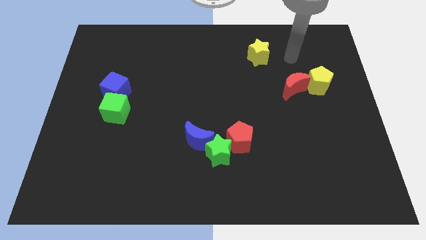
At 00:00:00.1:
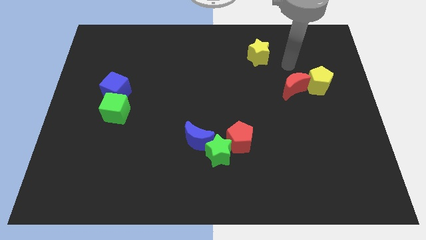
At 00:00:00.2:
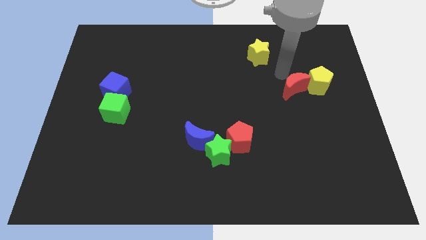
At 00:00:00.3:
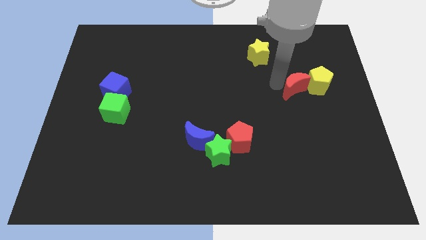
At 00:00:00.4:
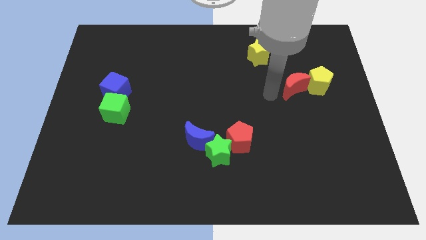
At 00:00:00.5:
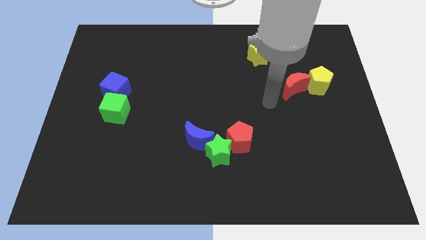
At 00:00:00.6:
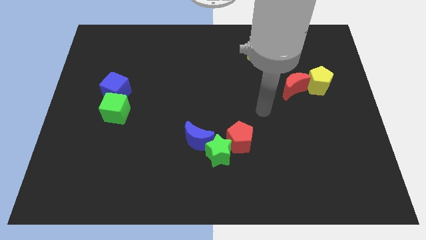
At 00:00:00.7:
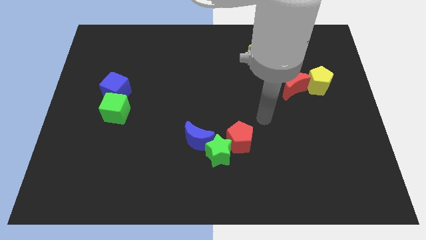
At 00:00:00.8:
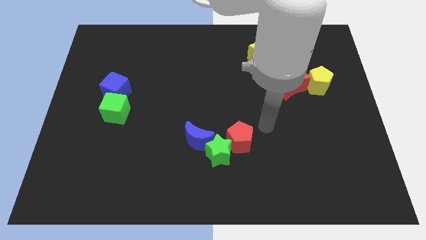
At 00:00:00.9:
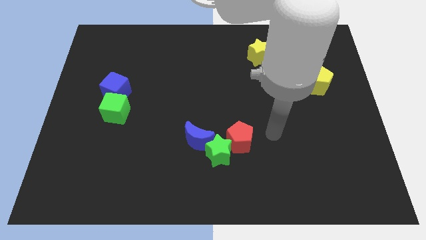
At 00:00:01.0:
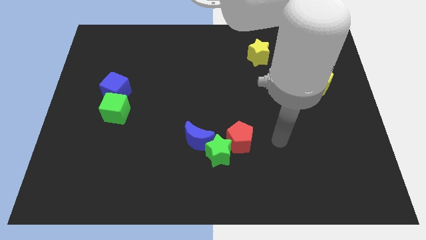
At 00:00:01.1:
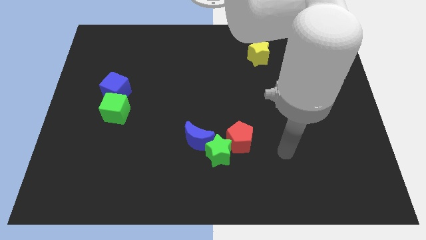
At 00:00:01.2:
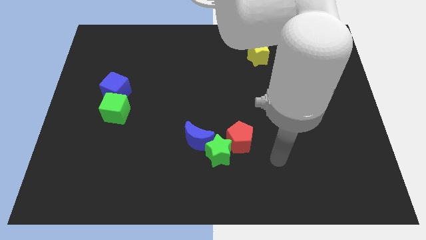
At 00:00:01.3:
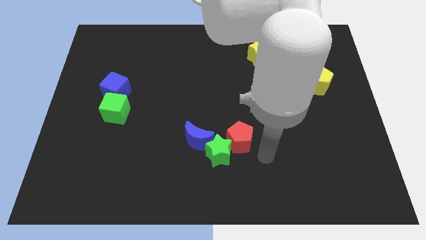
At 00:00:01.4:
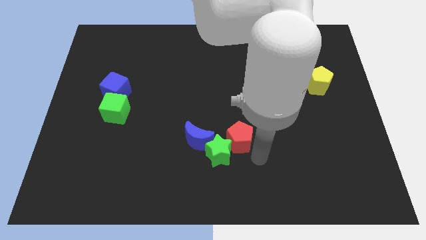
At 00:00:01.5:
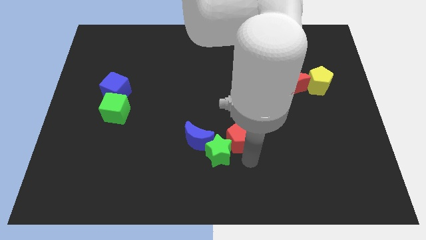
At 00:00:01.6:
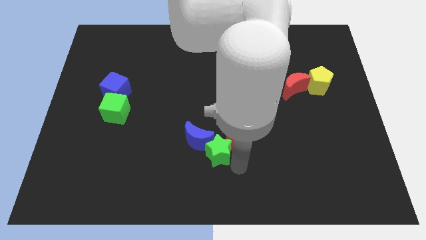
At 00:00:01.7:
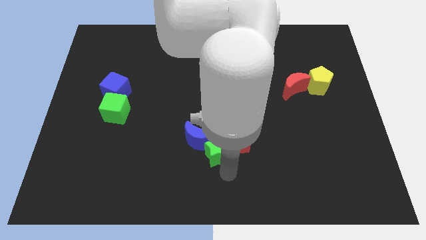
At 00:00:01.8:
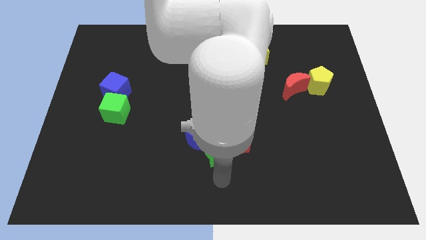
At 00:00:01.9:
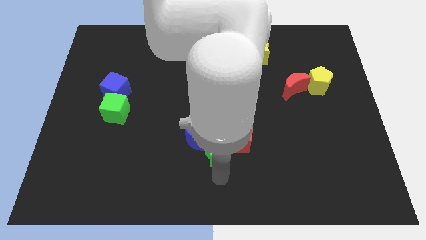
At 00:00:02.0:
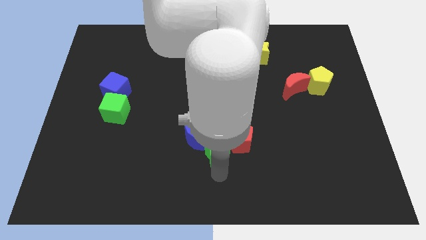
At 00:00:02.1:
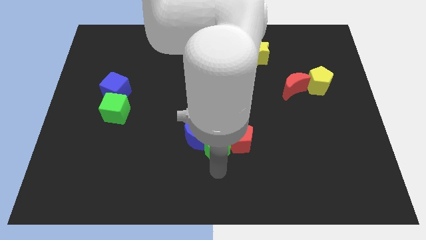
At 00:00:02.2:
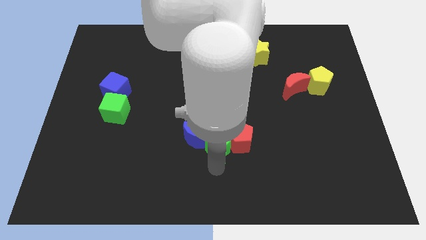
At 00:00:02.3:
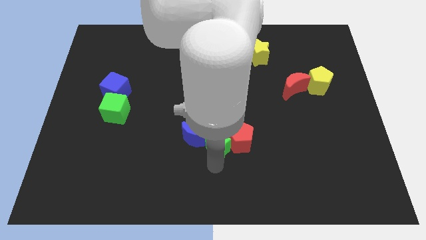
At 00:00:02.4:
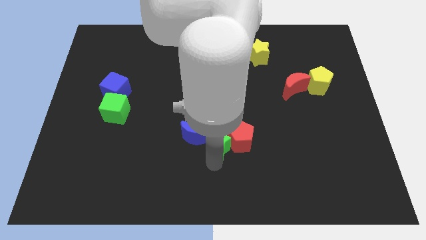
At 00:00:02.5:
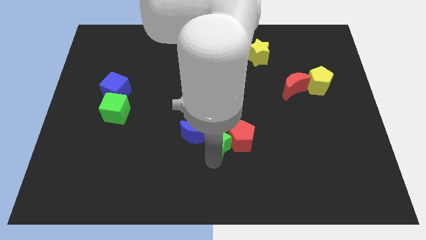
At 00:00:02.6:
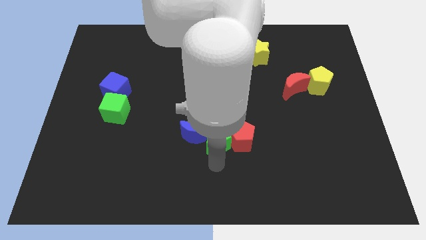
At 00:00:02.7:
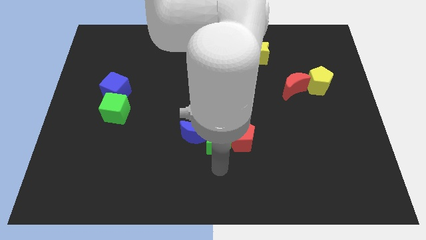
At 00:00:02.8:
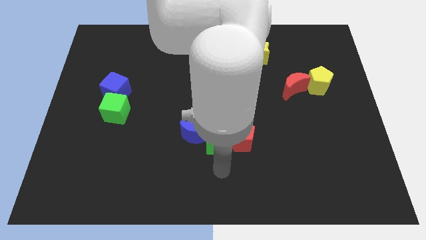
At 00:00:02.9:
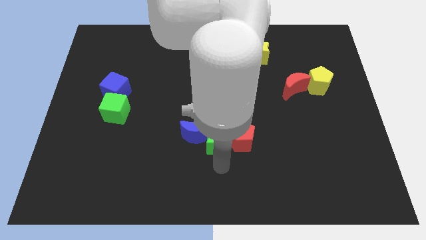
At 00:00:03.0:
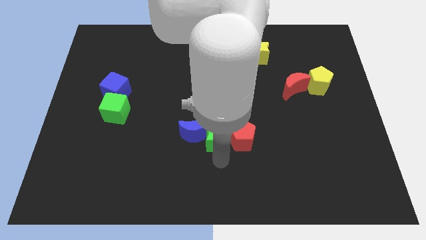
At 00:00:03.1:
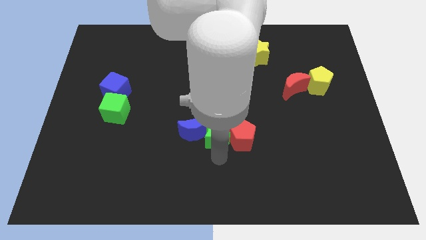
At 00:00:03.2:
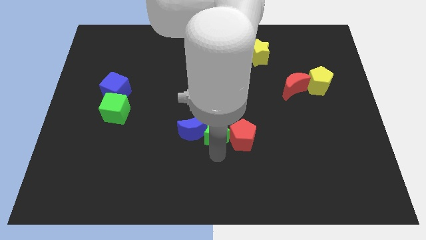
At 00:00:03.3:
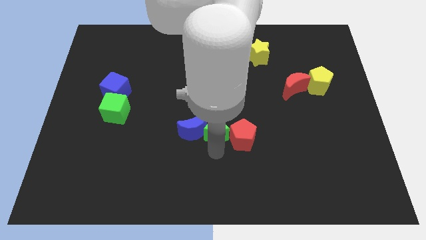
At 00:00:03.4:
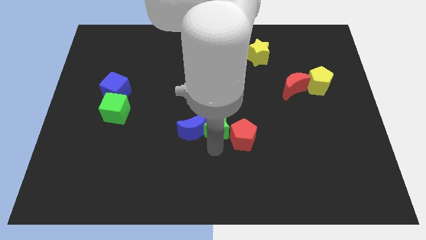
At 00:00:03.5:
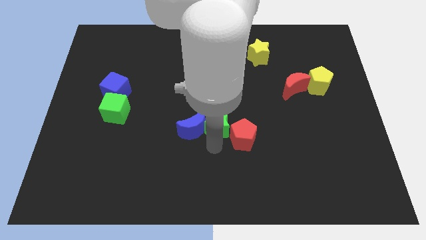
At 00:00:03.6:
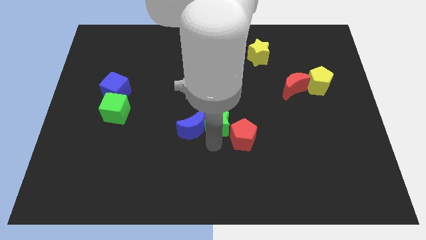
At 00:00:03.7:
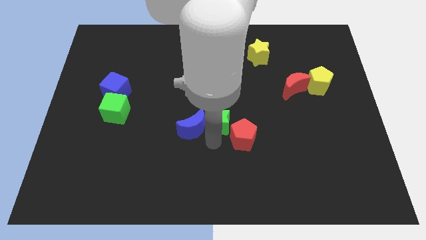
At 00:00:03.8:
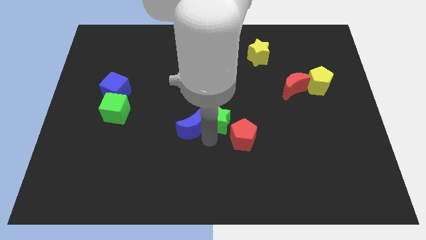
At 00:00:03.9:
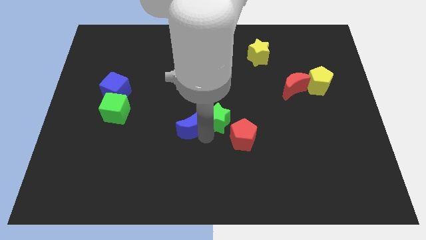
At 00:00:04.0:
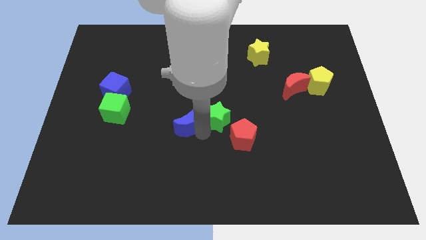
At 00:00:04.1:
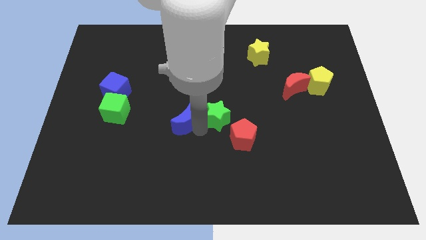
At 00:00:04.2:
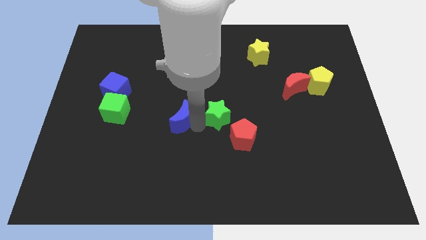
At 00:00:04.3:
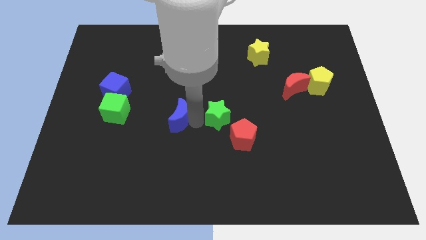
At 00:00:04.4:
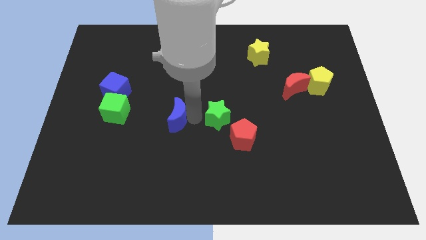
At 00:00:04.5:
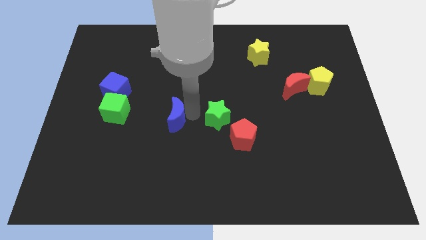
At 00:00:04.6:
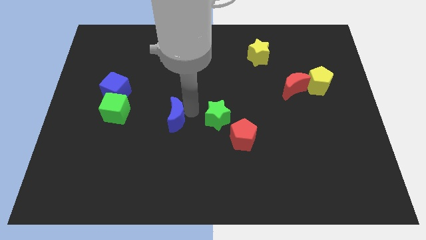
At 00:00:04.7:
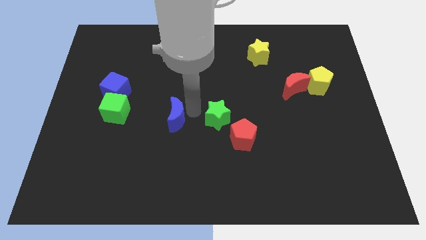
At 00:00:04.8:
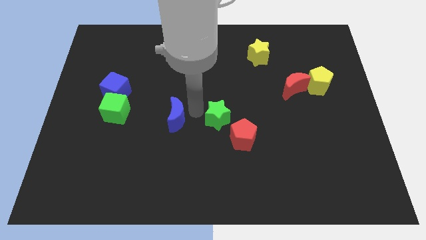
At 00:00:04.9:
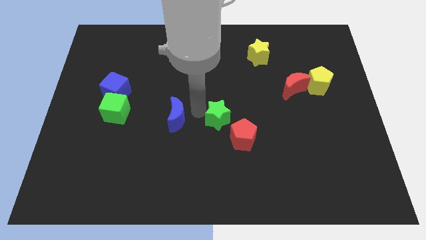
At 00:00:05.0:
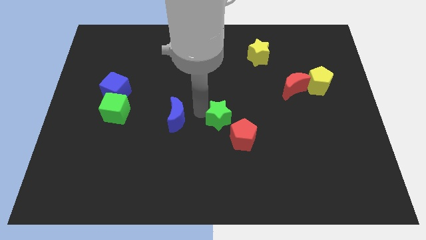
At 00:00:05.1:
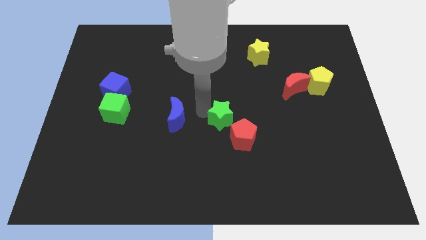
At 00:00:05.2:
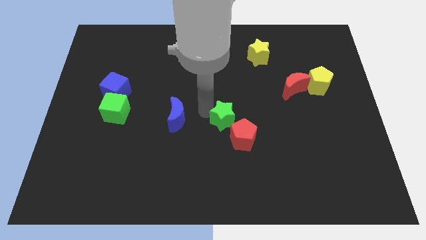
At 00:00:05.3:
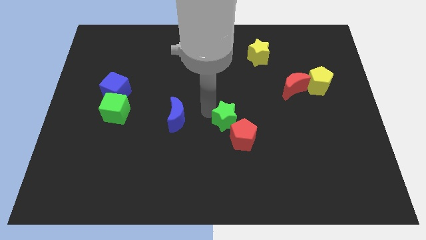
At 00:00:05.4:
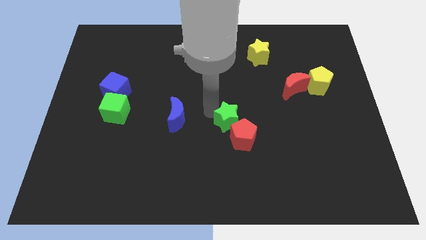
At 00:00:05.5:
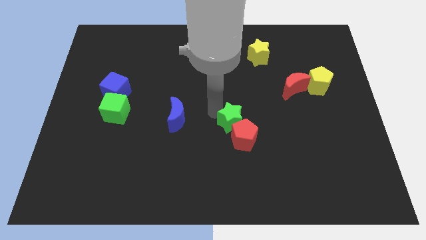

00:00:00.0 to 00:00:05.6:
push the green star up and right slightly

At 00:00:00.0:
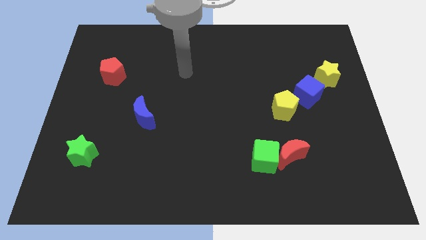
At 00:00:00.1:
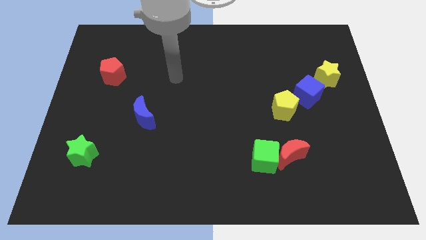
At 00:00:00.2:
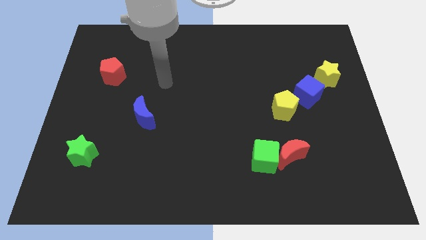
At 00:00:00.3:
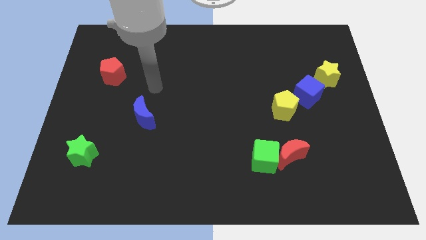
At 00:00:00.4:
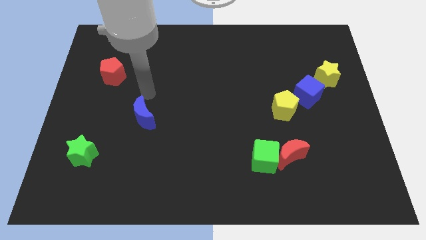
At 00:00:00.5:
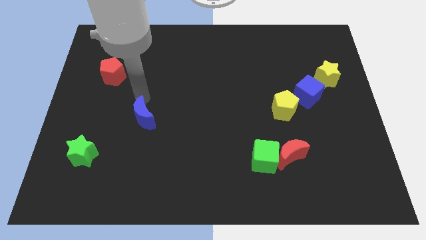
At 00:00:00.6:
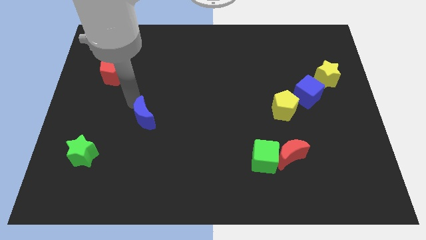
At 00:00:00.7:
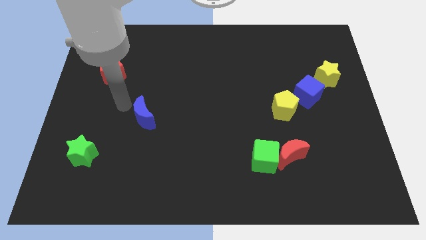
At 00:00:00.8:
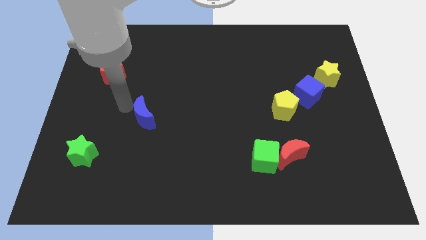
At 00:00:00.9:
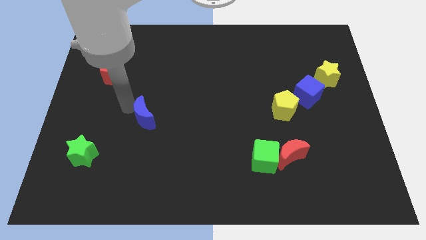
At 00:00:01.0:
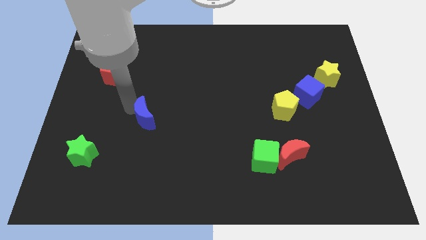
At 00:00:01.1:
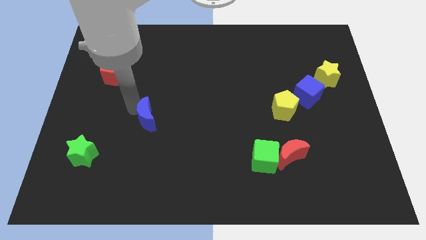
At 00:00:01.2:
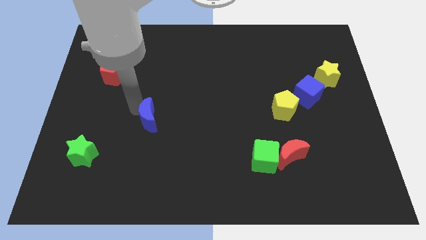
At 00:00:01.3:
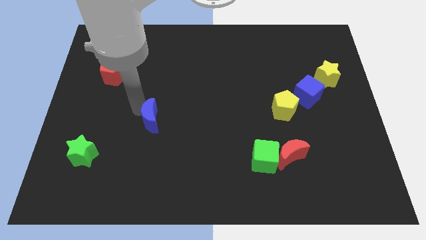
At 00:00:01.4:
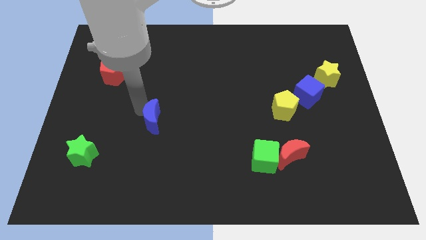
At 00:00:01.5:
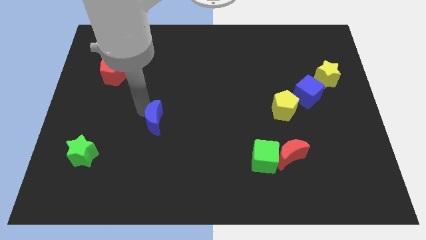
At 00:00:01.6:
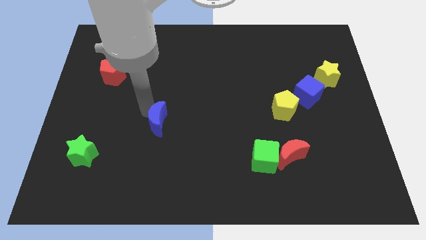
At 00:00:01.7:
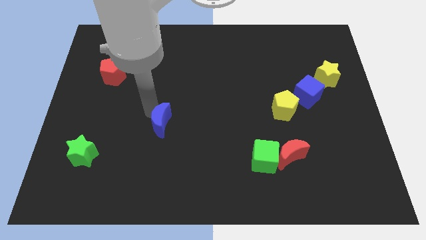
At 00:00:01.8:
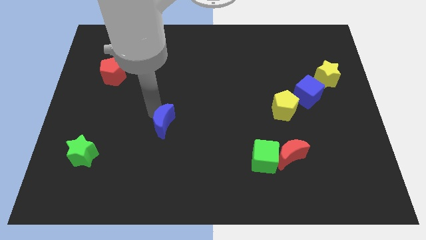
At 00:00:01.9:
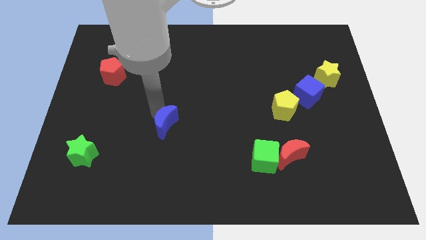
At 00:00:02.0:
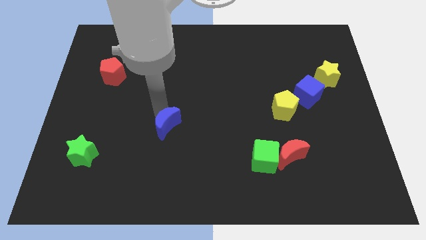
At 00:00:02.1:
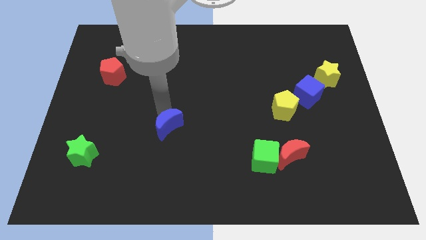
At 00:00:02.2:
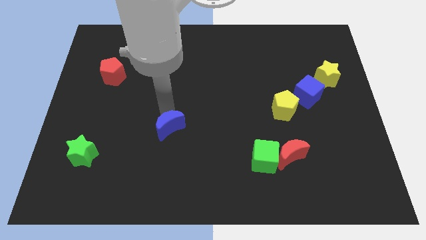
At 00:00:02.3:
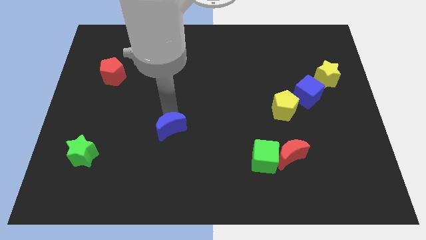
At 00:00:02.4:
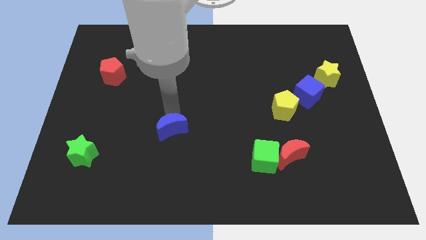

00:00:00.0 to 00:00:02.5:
move the blue moon downwards and right diagonally slightly
